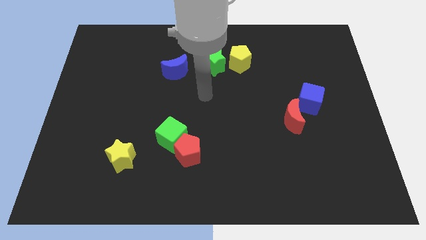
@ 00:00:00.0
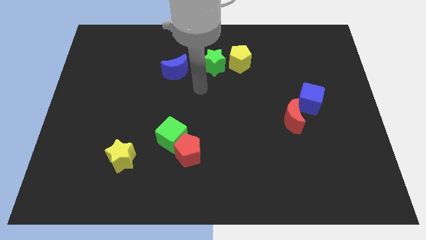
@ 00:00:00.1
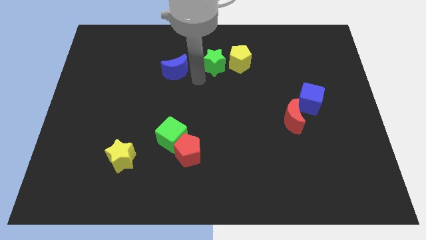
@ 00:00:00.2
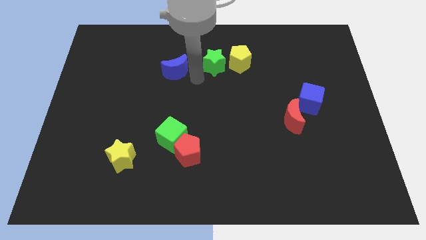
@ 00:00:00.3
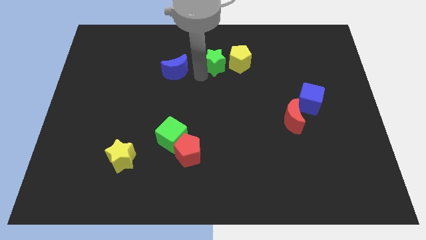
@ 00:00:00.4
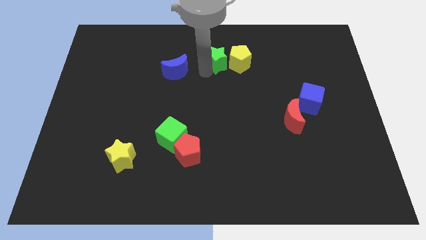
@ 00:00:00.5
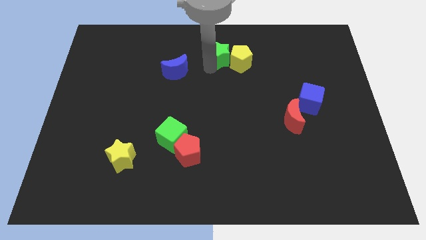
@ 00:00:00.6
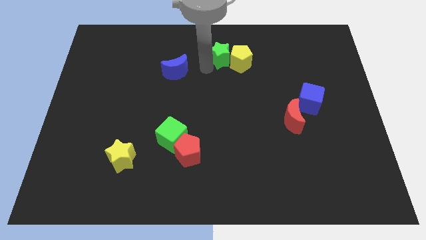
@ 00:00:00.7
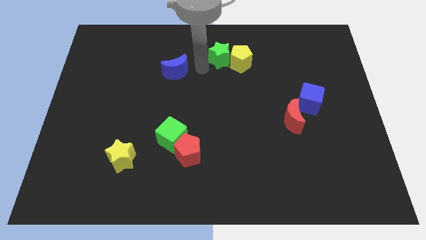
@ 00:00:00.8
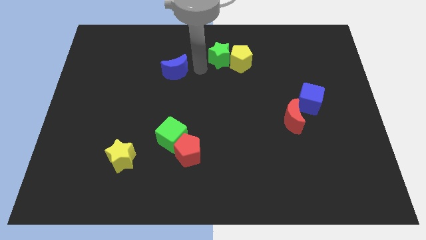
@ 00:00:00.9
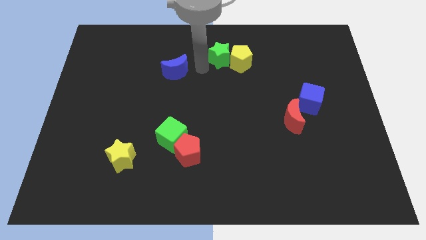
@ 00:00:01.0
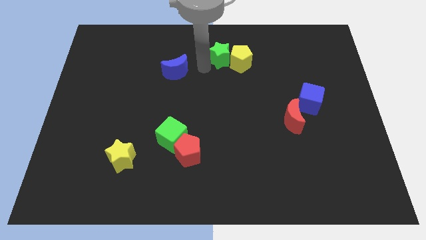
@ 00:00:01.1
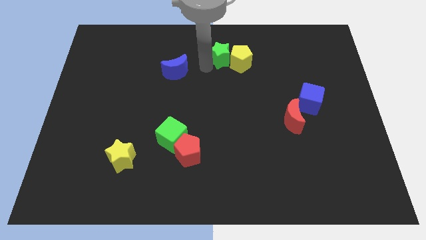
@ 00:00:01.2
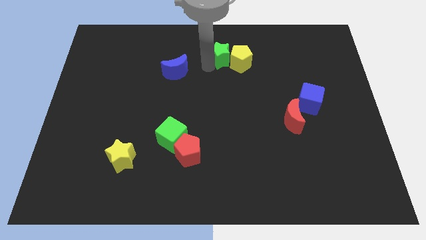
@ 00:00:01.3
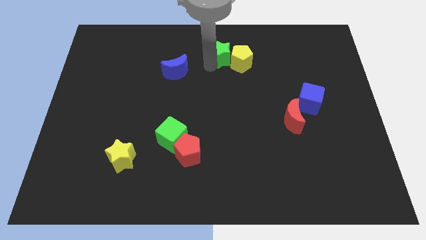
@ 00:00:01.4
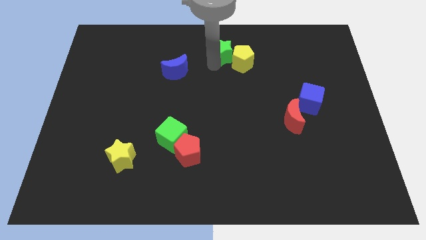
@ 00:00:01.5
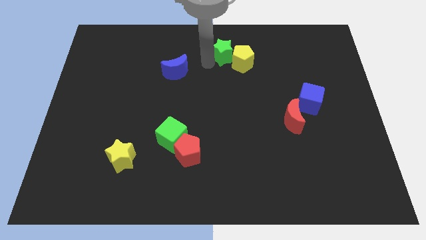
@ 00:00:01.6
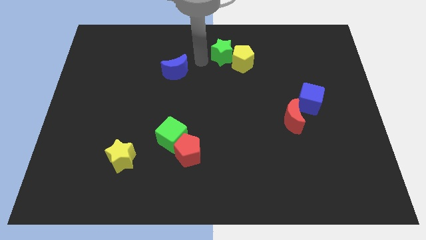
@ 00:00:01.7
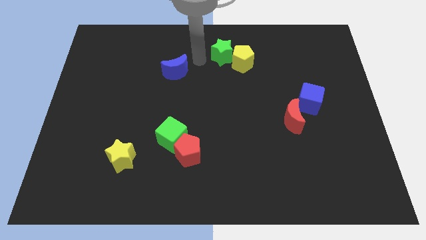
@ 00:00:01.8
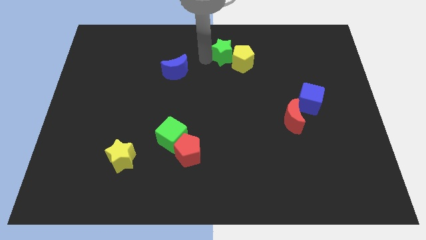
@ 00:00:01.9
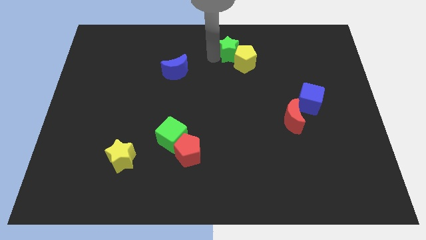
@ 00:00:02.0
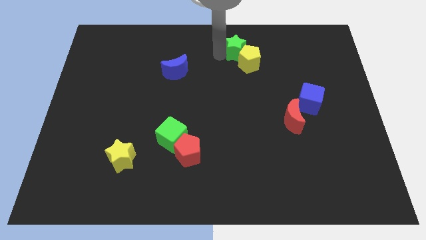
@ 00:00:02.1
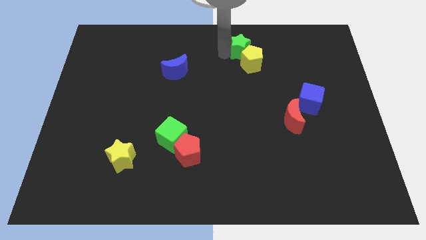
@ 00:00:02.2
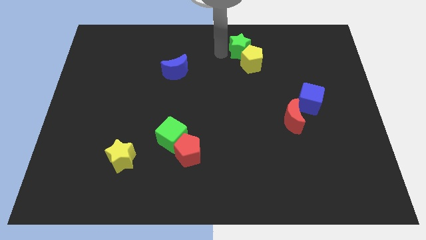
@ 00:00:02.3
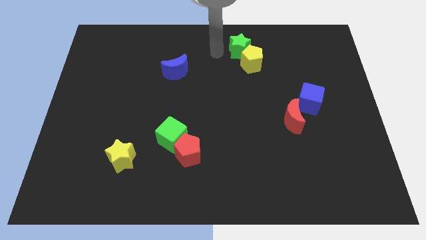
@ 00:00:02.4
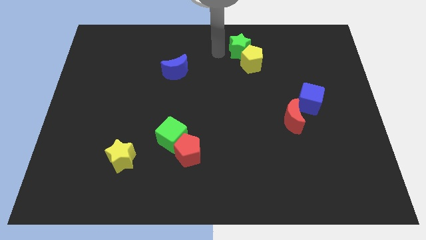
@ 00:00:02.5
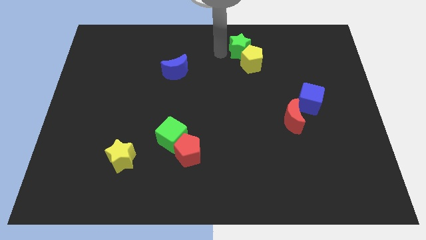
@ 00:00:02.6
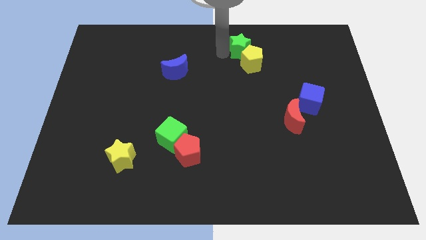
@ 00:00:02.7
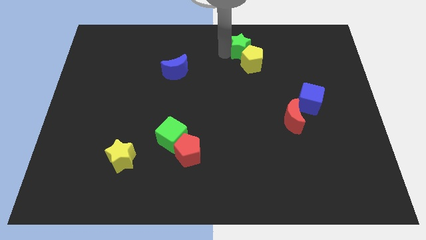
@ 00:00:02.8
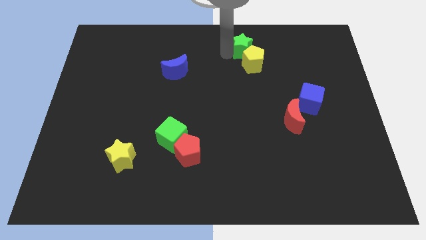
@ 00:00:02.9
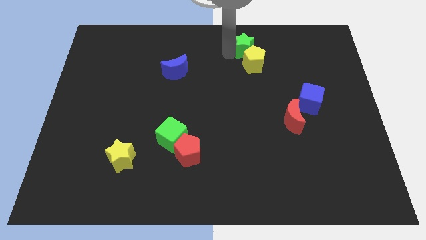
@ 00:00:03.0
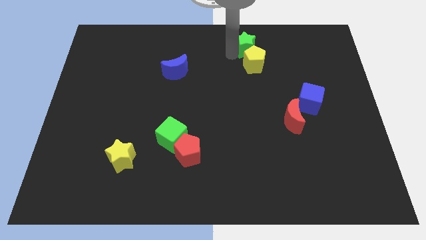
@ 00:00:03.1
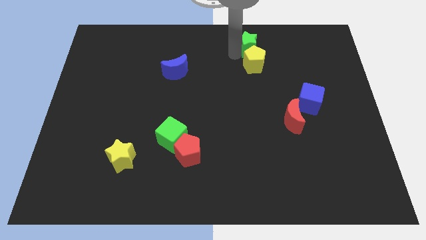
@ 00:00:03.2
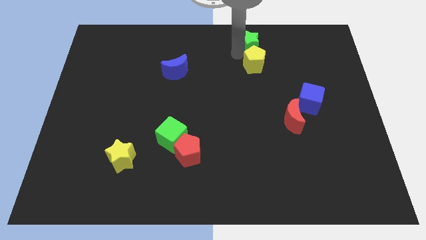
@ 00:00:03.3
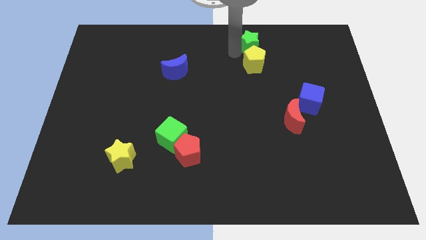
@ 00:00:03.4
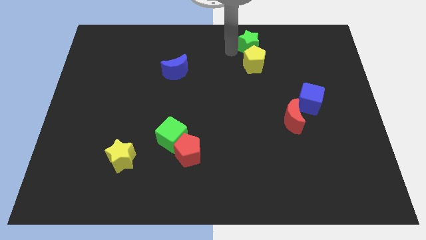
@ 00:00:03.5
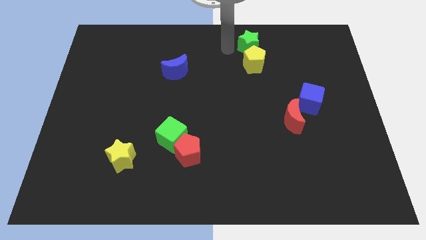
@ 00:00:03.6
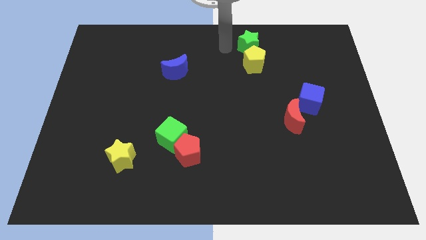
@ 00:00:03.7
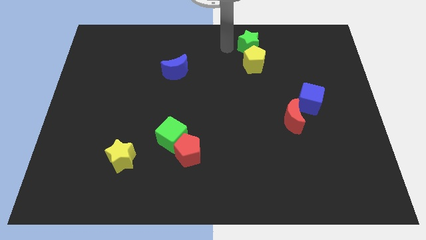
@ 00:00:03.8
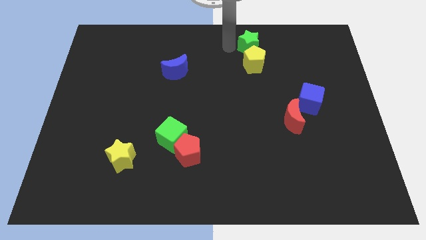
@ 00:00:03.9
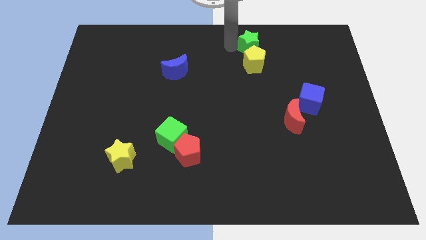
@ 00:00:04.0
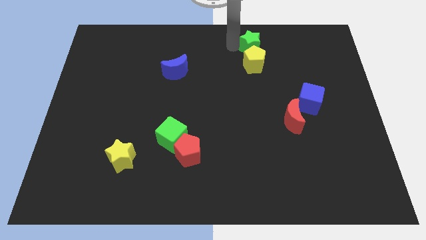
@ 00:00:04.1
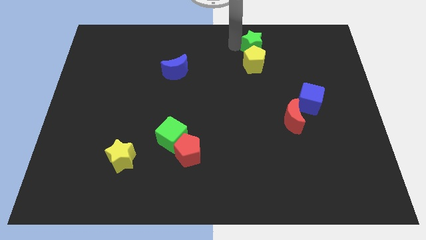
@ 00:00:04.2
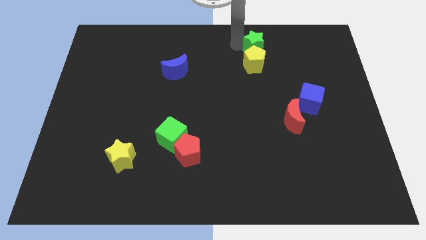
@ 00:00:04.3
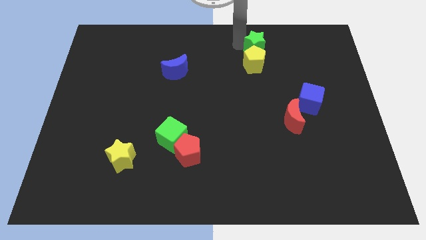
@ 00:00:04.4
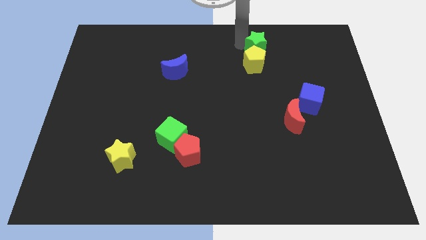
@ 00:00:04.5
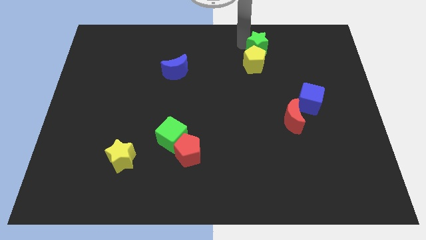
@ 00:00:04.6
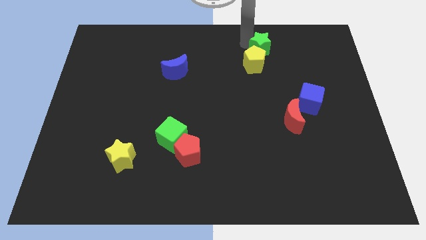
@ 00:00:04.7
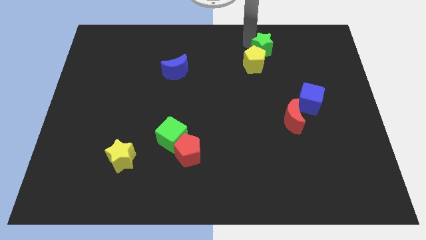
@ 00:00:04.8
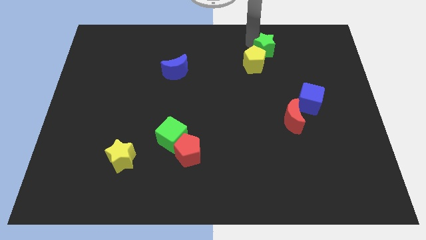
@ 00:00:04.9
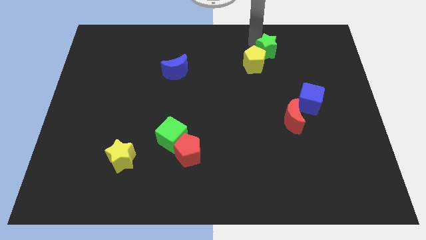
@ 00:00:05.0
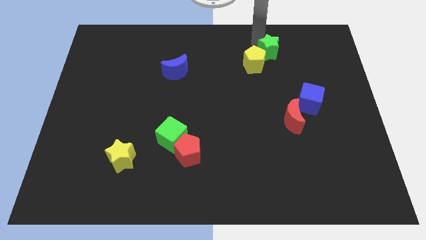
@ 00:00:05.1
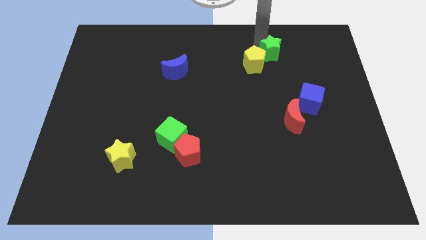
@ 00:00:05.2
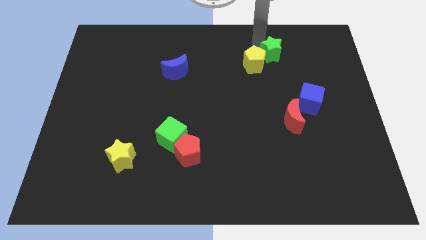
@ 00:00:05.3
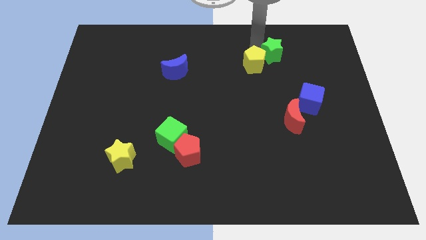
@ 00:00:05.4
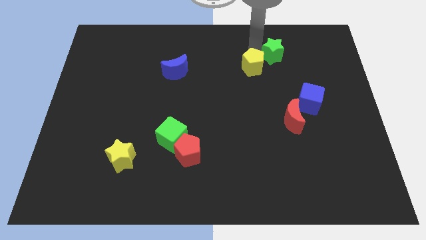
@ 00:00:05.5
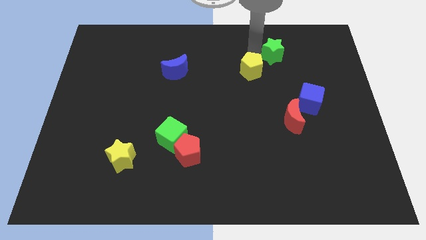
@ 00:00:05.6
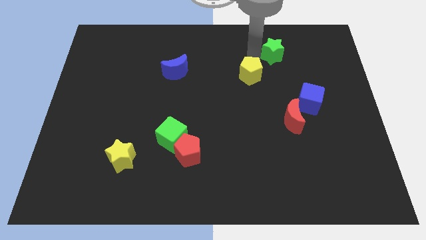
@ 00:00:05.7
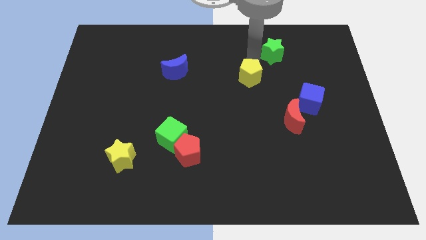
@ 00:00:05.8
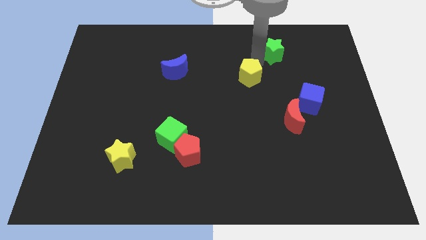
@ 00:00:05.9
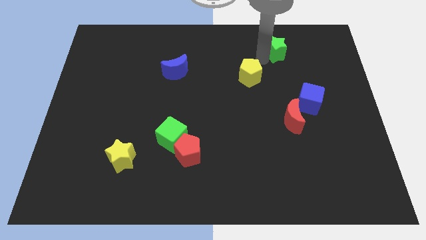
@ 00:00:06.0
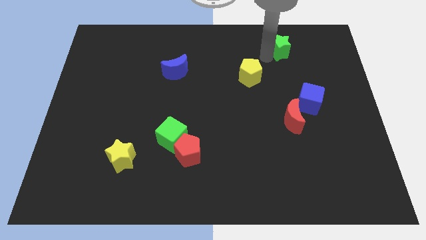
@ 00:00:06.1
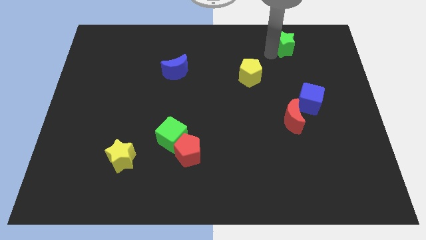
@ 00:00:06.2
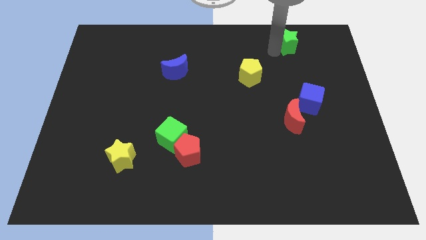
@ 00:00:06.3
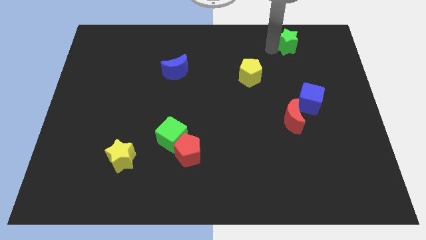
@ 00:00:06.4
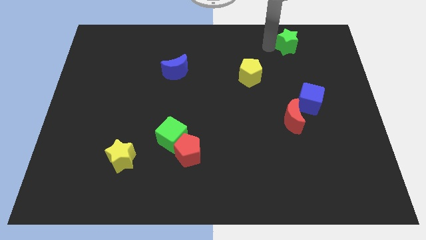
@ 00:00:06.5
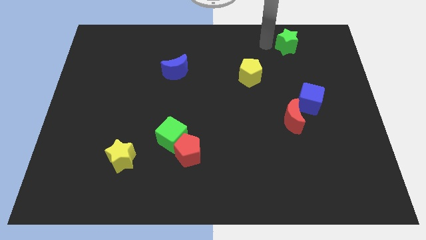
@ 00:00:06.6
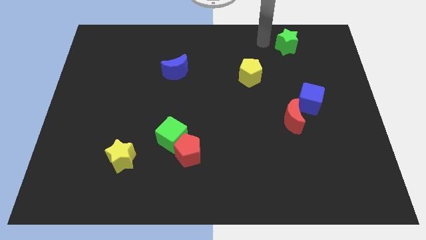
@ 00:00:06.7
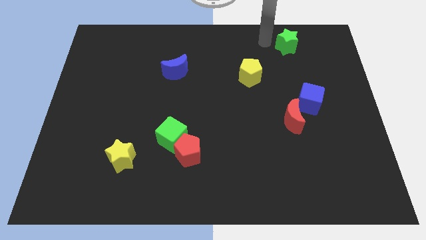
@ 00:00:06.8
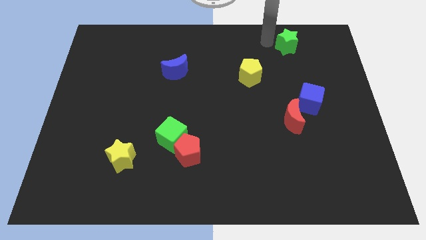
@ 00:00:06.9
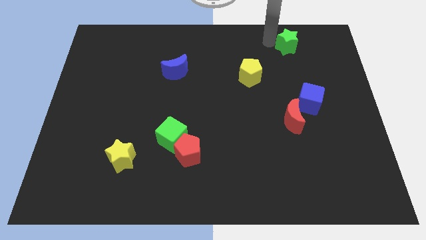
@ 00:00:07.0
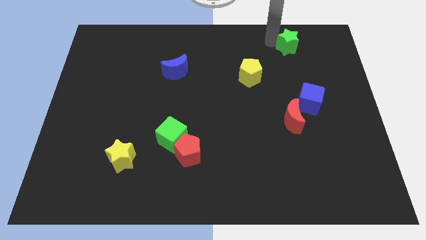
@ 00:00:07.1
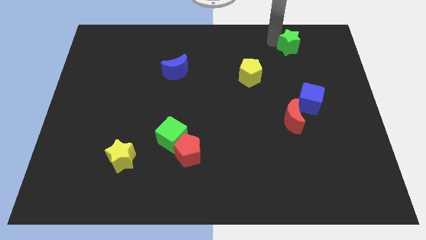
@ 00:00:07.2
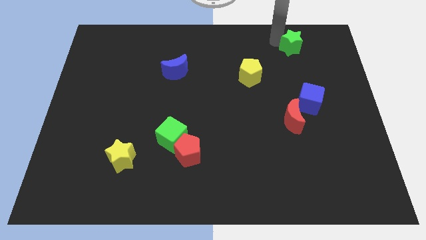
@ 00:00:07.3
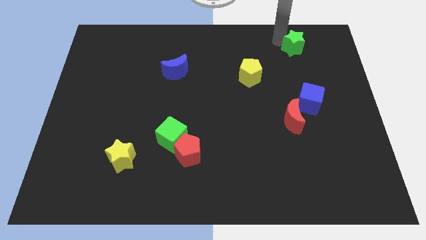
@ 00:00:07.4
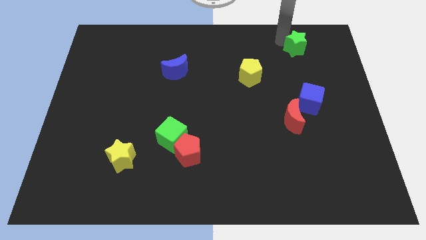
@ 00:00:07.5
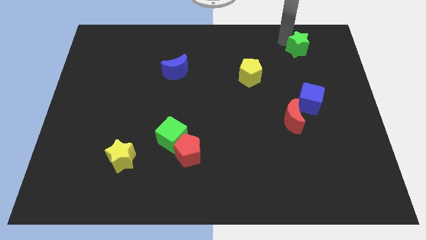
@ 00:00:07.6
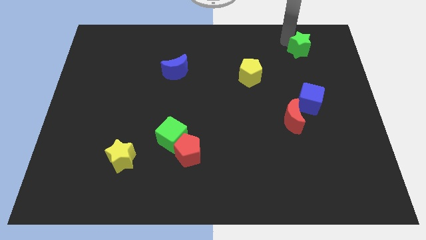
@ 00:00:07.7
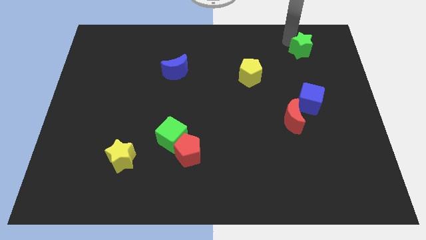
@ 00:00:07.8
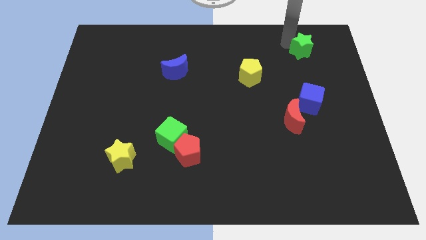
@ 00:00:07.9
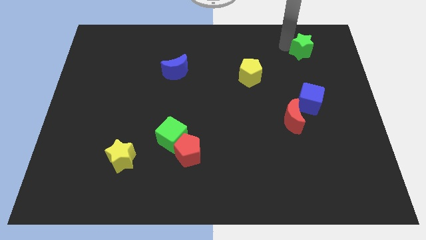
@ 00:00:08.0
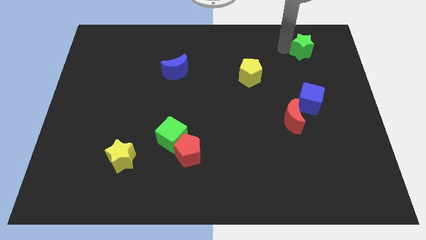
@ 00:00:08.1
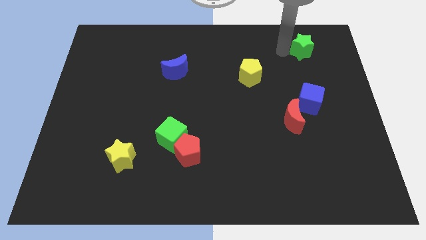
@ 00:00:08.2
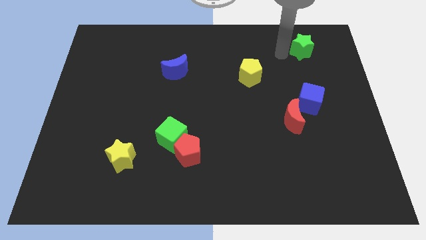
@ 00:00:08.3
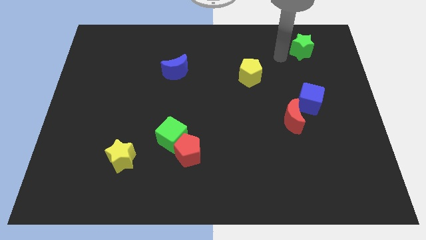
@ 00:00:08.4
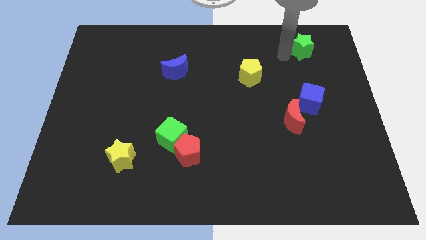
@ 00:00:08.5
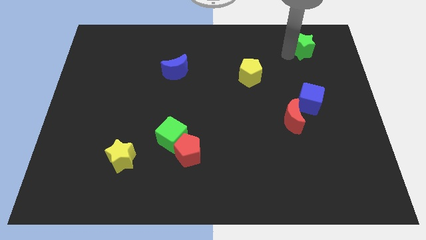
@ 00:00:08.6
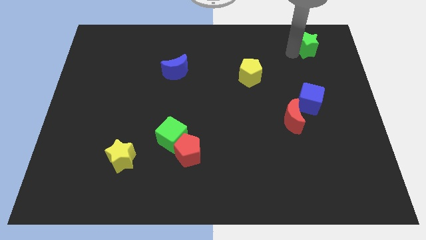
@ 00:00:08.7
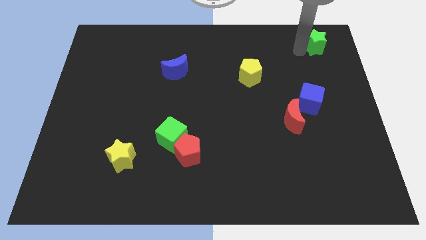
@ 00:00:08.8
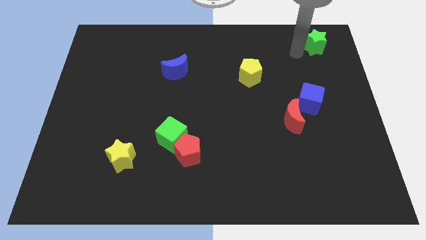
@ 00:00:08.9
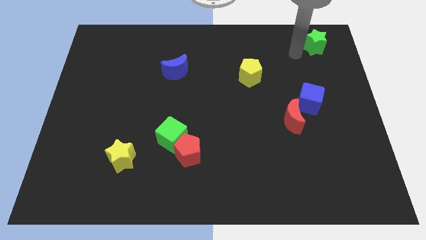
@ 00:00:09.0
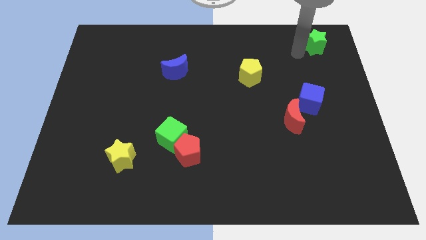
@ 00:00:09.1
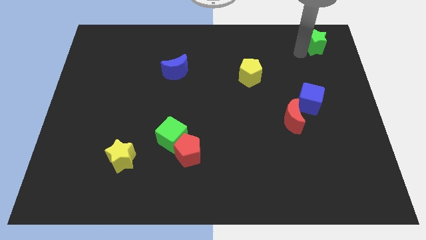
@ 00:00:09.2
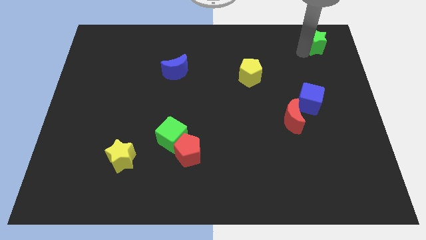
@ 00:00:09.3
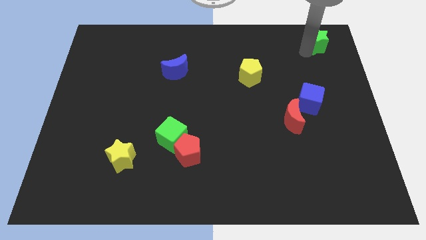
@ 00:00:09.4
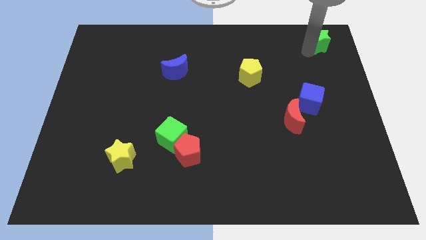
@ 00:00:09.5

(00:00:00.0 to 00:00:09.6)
push the green star to the top right of the board
